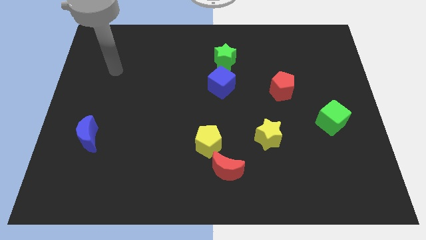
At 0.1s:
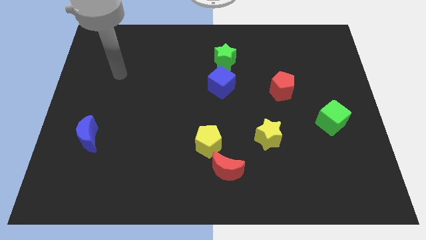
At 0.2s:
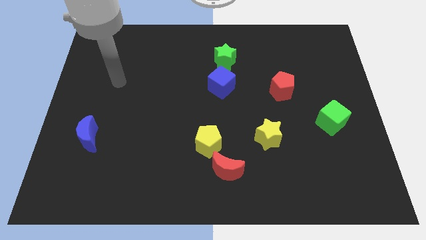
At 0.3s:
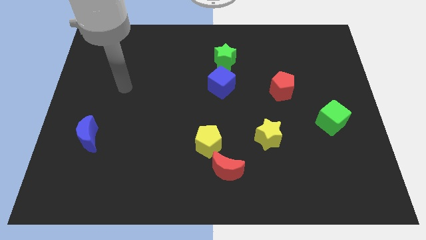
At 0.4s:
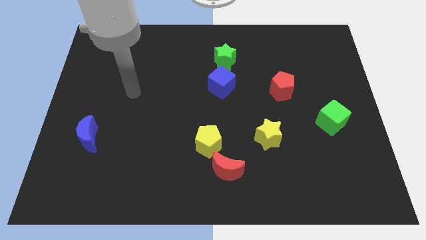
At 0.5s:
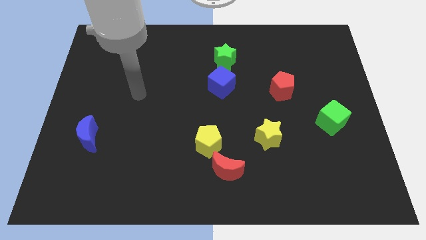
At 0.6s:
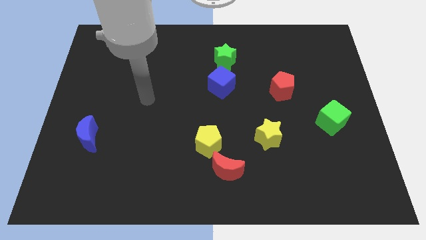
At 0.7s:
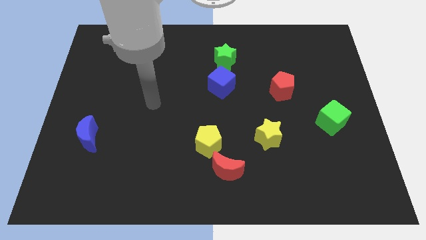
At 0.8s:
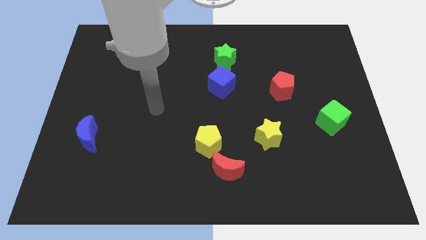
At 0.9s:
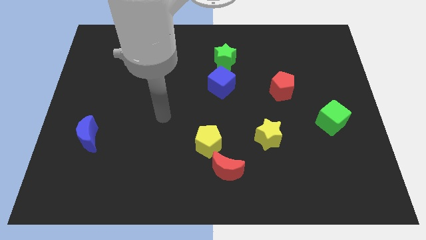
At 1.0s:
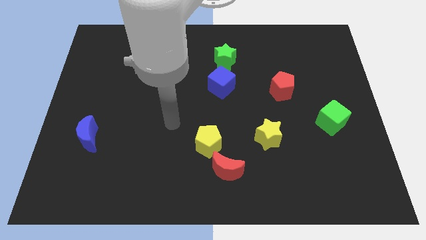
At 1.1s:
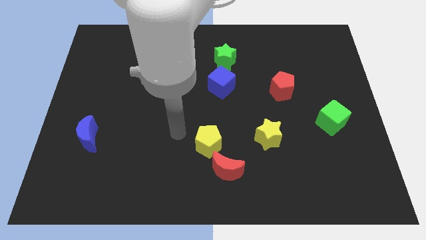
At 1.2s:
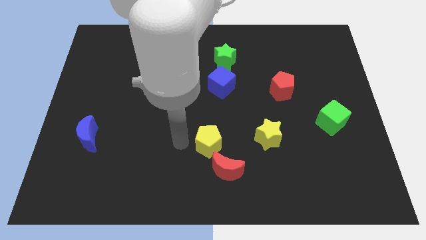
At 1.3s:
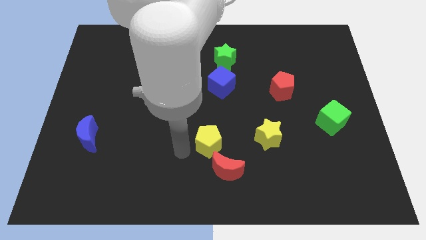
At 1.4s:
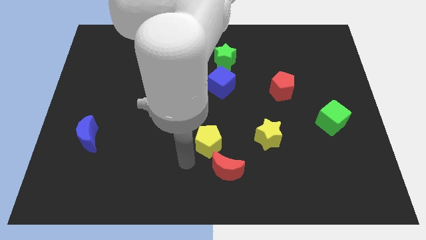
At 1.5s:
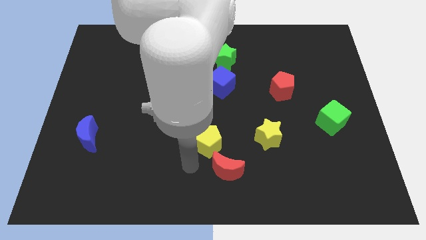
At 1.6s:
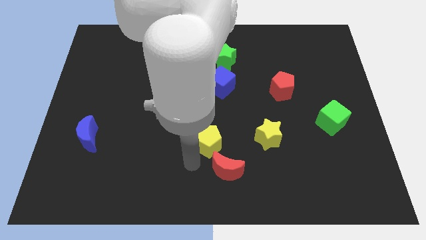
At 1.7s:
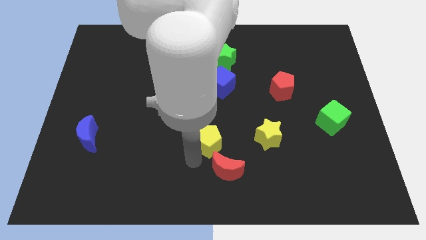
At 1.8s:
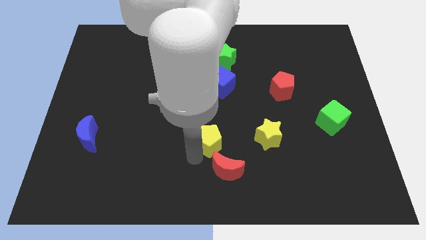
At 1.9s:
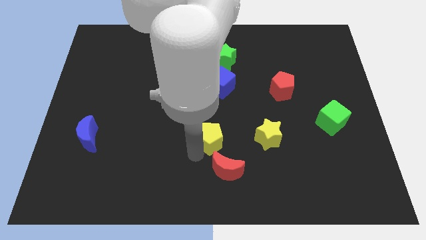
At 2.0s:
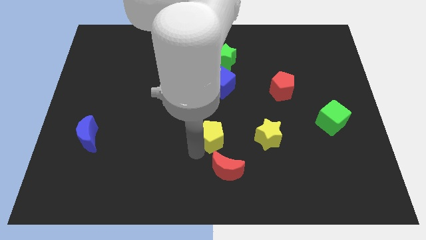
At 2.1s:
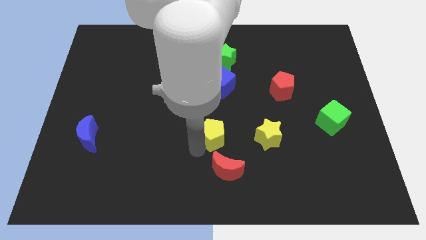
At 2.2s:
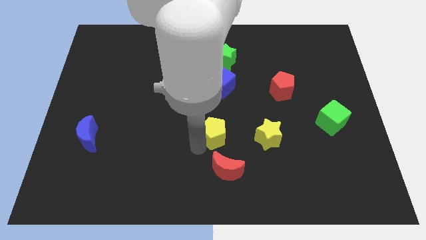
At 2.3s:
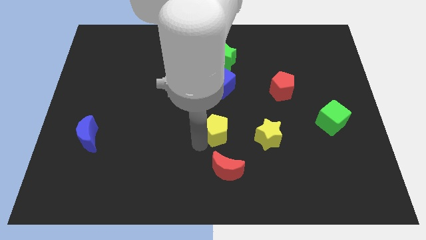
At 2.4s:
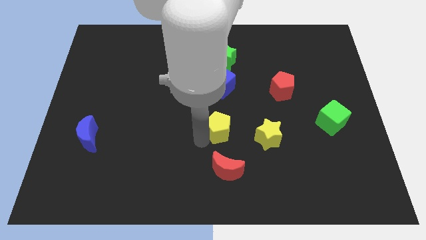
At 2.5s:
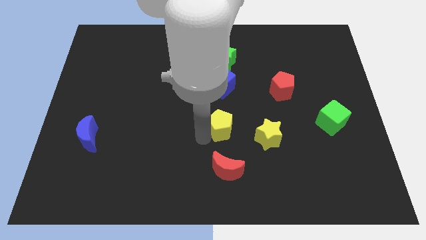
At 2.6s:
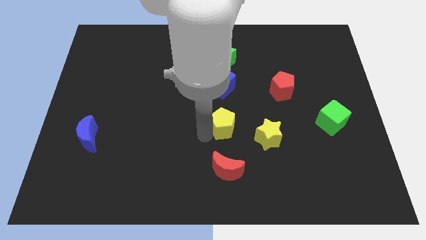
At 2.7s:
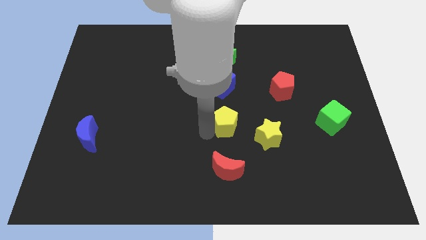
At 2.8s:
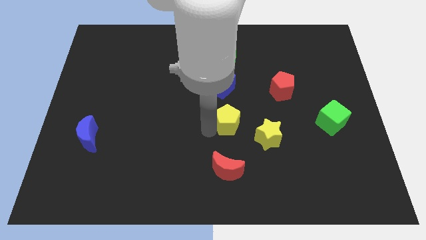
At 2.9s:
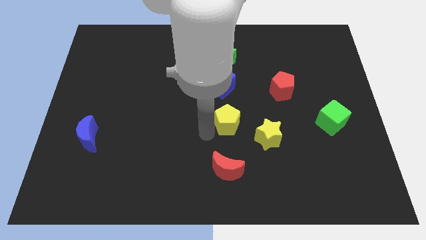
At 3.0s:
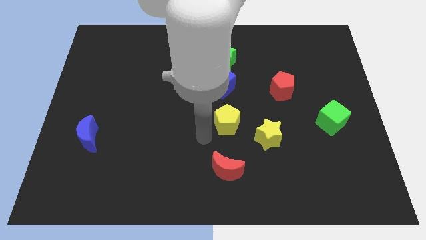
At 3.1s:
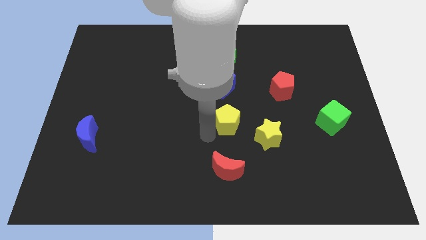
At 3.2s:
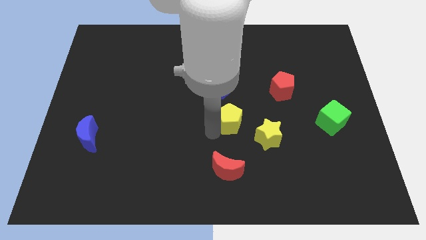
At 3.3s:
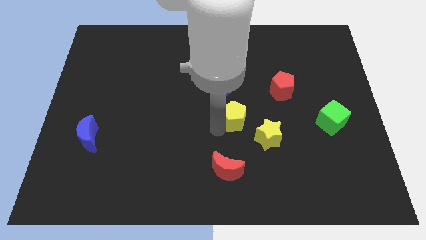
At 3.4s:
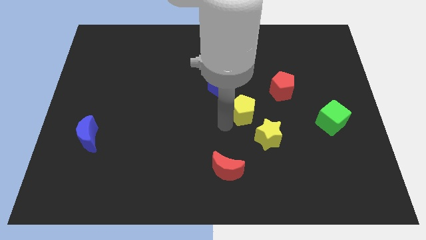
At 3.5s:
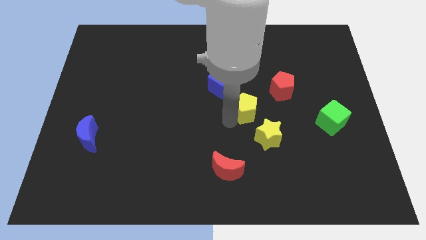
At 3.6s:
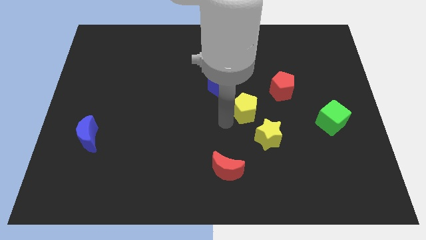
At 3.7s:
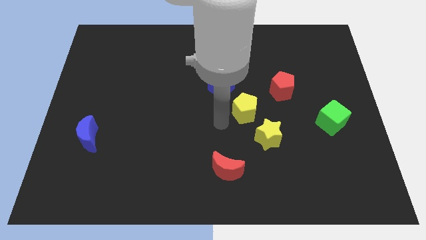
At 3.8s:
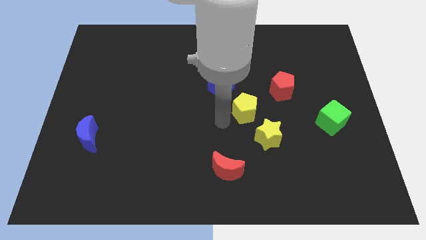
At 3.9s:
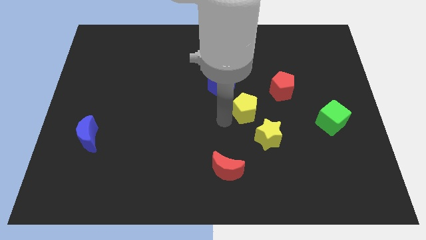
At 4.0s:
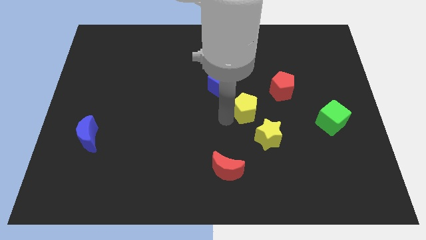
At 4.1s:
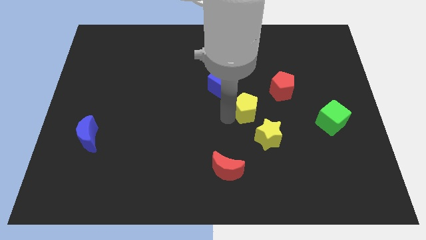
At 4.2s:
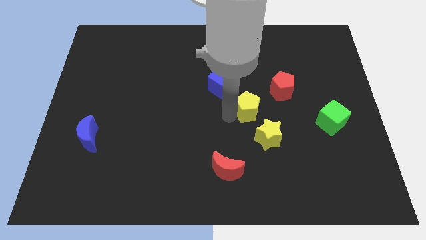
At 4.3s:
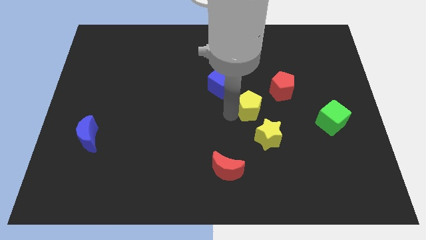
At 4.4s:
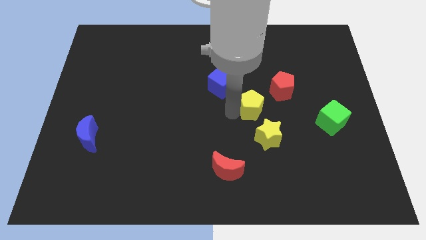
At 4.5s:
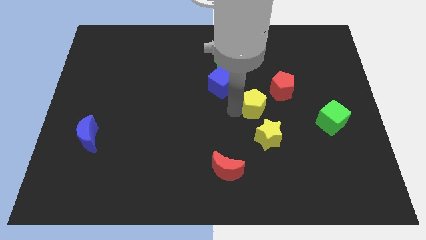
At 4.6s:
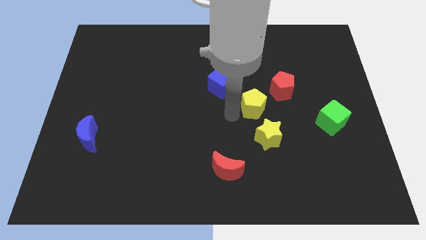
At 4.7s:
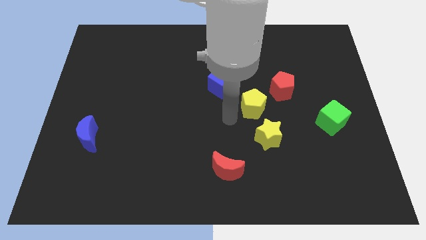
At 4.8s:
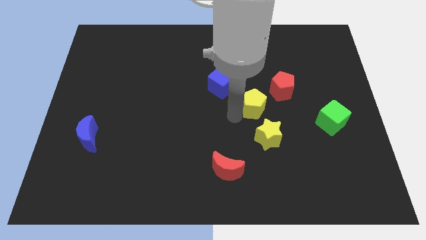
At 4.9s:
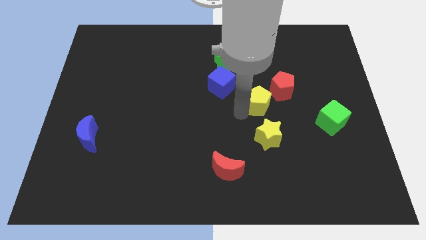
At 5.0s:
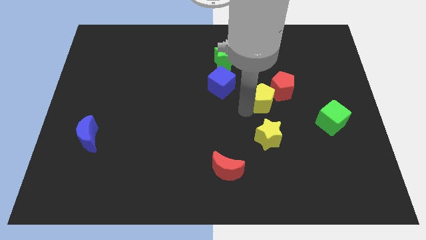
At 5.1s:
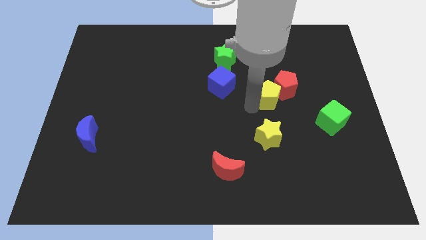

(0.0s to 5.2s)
put the yellow pentagon towards the red pentagon

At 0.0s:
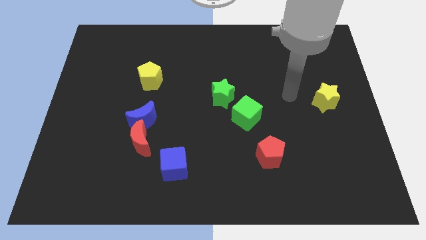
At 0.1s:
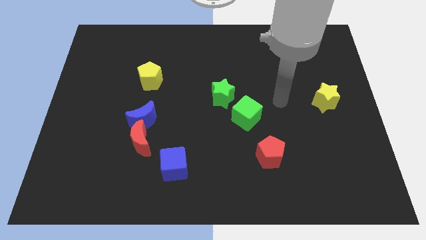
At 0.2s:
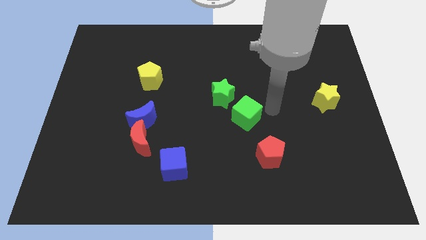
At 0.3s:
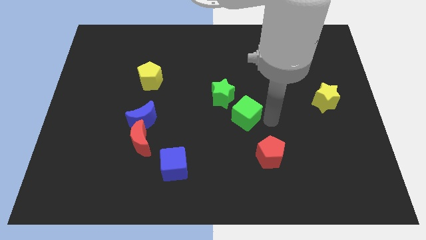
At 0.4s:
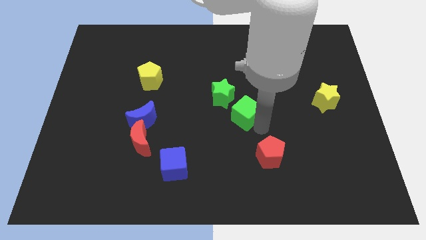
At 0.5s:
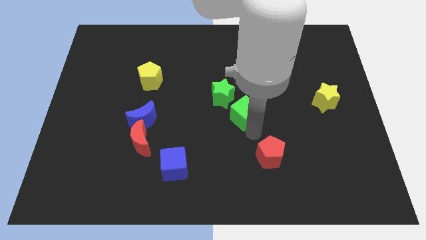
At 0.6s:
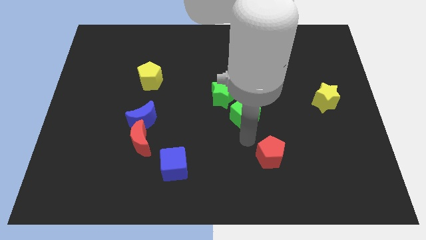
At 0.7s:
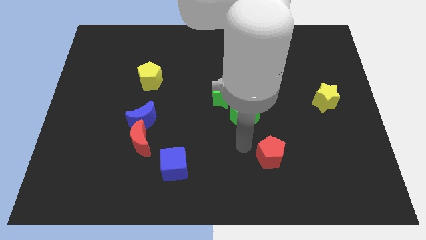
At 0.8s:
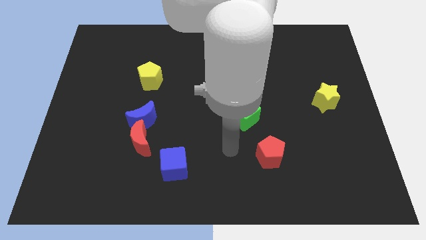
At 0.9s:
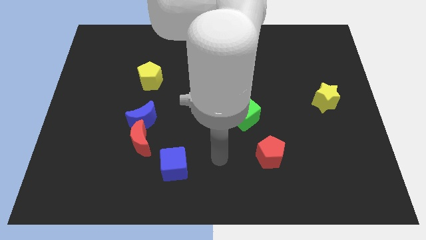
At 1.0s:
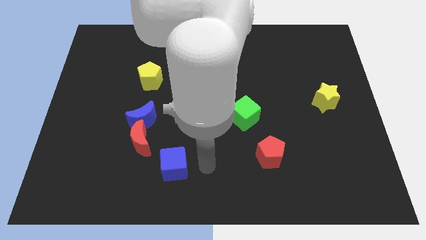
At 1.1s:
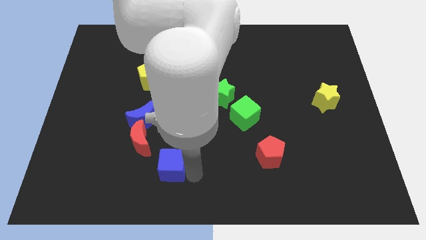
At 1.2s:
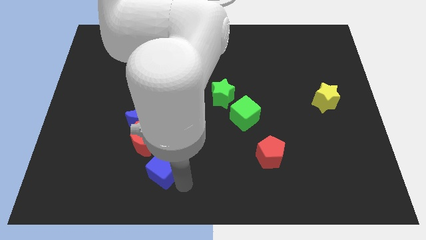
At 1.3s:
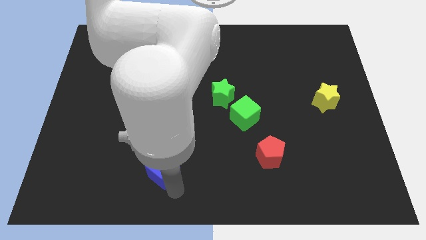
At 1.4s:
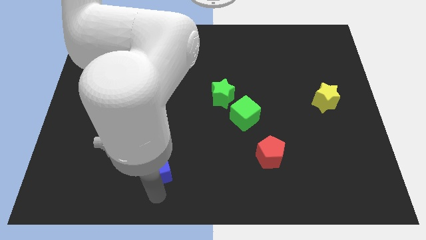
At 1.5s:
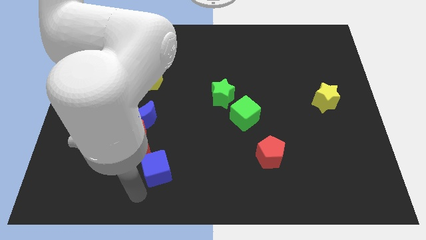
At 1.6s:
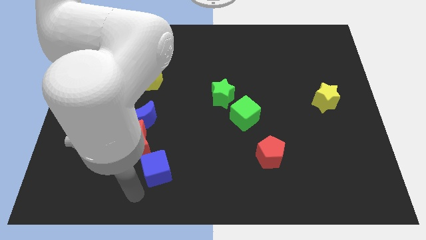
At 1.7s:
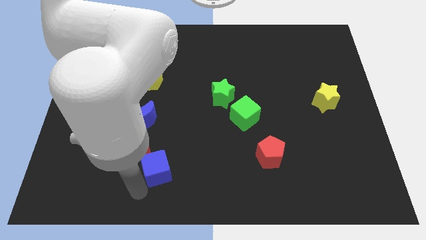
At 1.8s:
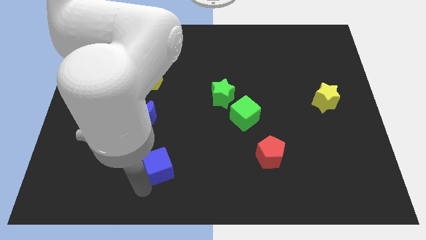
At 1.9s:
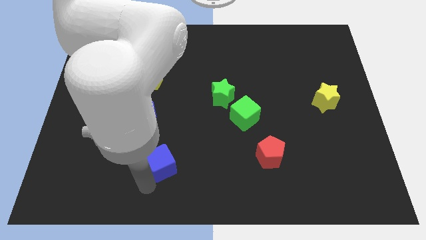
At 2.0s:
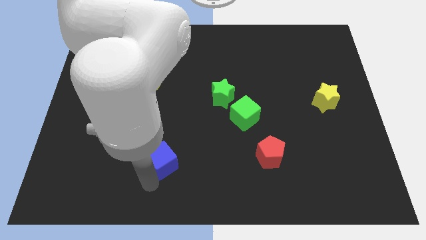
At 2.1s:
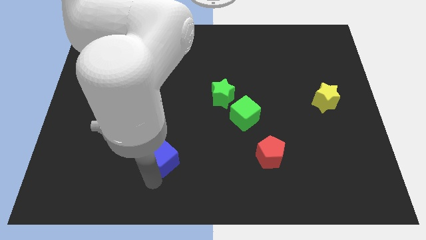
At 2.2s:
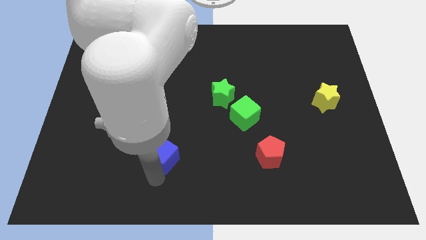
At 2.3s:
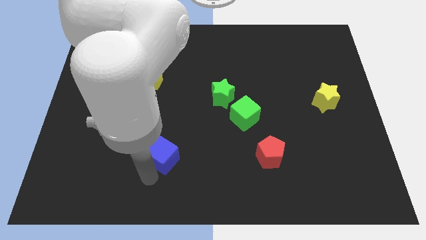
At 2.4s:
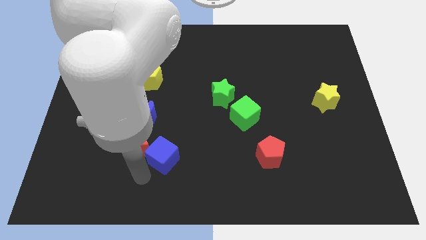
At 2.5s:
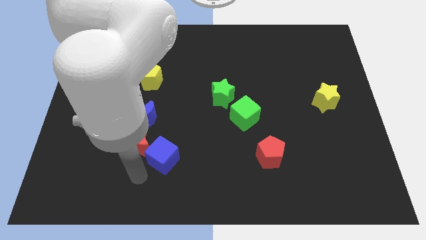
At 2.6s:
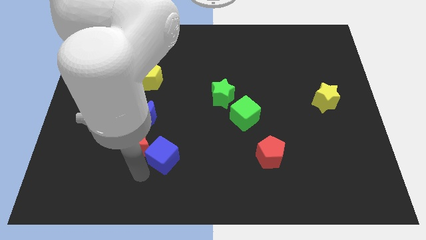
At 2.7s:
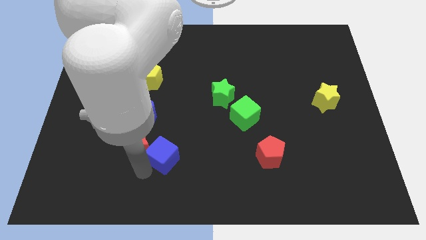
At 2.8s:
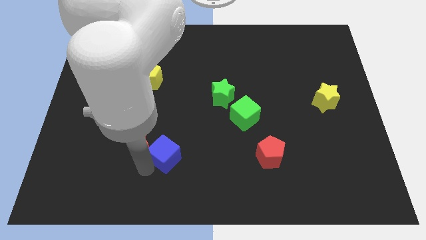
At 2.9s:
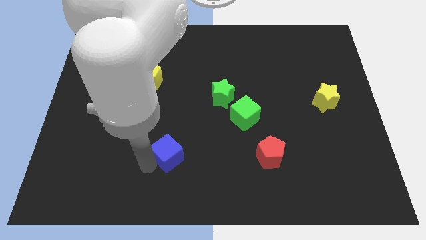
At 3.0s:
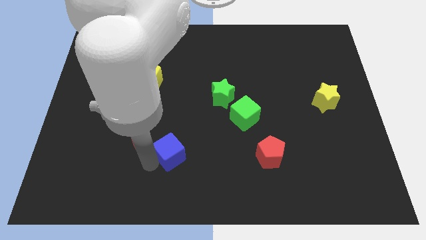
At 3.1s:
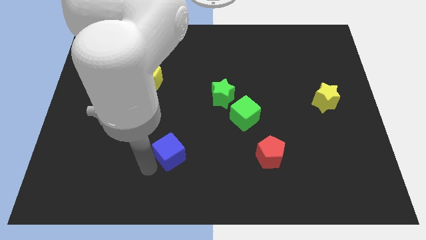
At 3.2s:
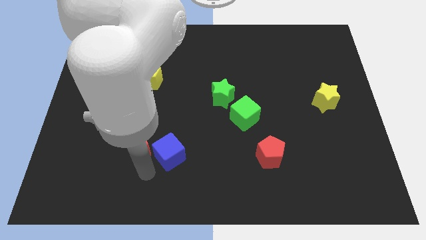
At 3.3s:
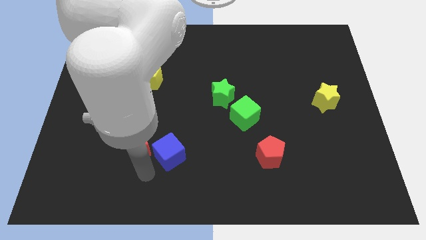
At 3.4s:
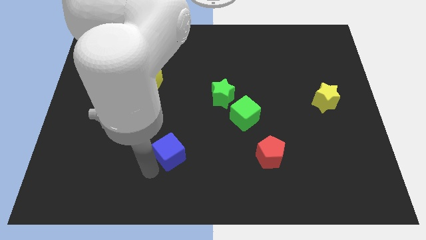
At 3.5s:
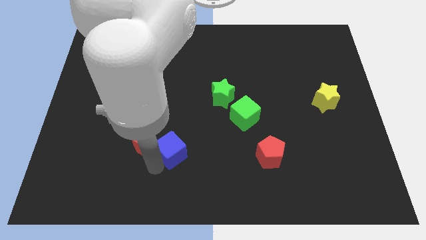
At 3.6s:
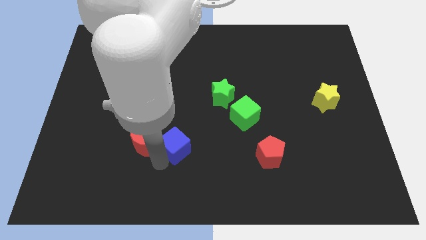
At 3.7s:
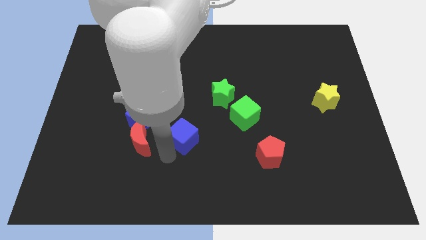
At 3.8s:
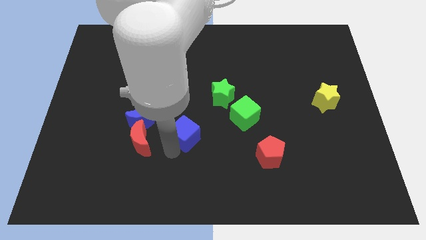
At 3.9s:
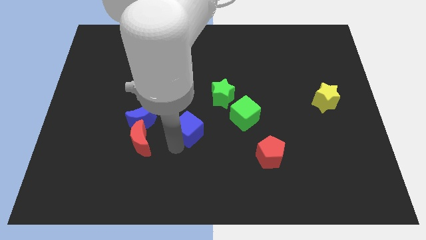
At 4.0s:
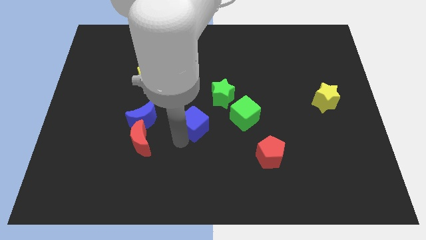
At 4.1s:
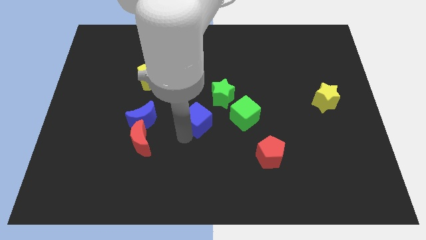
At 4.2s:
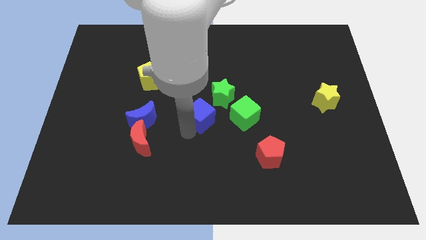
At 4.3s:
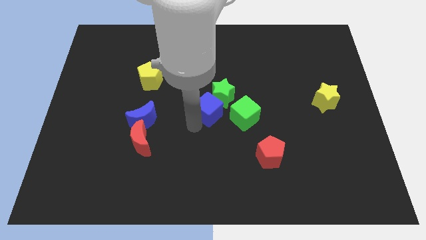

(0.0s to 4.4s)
move the blue cube to the green star
